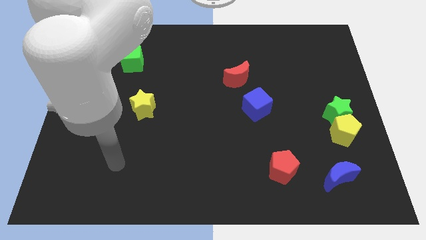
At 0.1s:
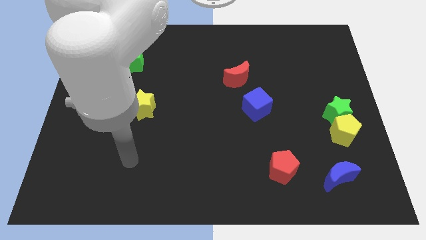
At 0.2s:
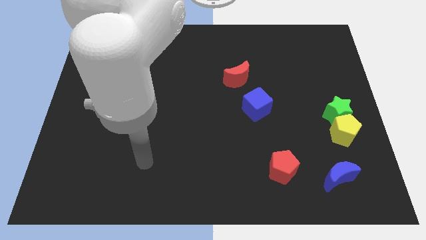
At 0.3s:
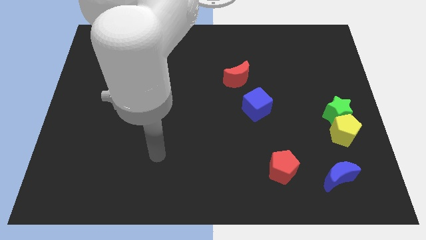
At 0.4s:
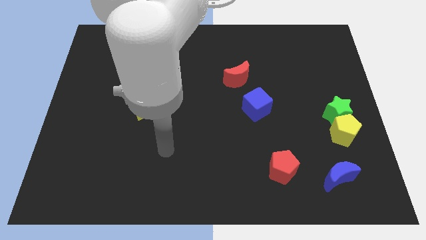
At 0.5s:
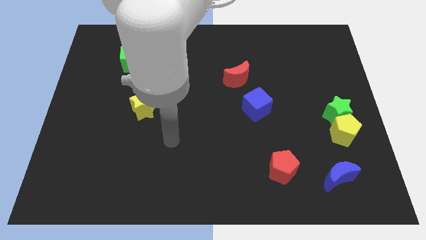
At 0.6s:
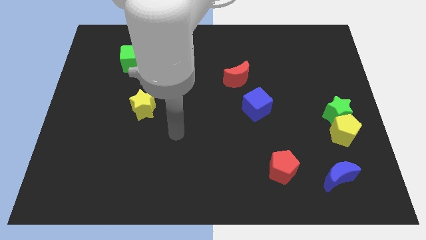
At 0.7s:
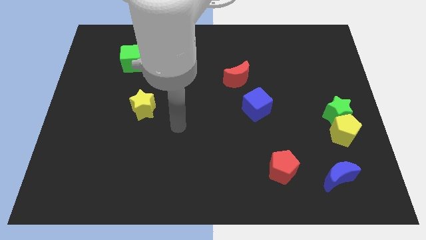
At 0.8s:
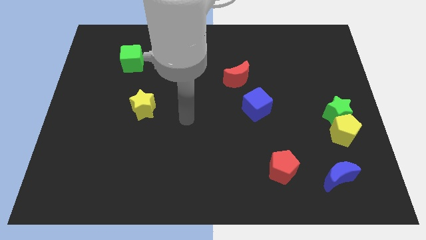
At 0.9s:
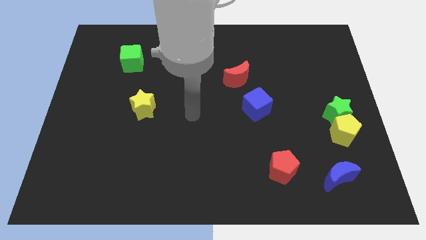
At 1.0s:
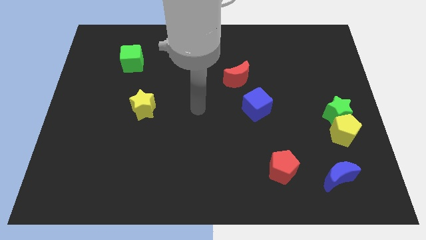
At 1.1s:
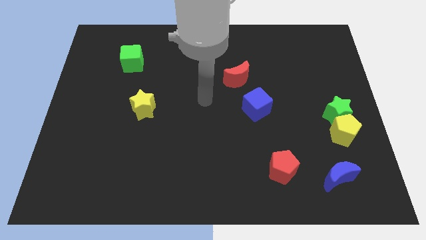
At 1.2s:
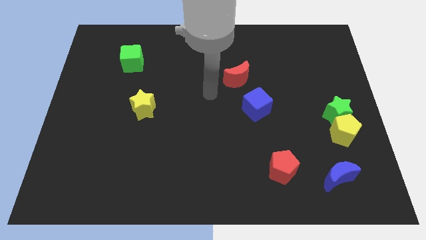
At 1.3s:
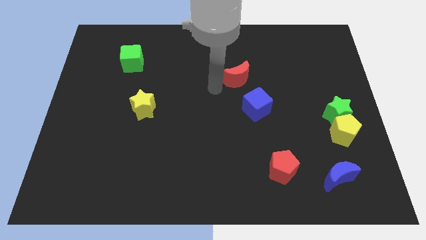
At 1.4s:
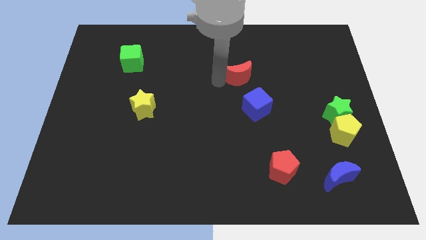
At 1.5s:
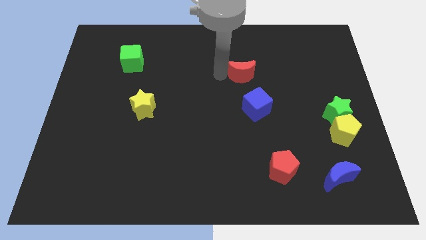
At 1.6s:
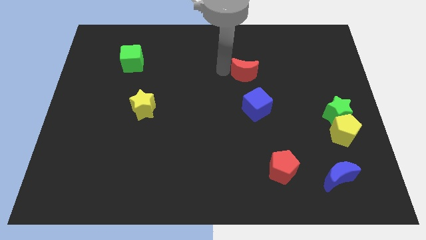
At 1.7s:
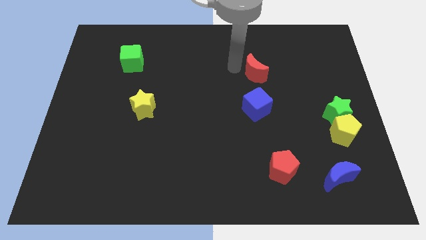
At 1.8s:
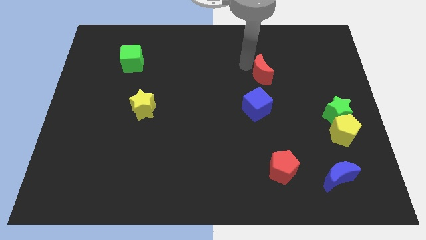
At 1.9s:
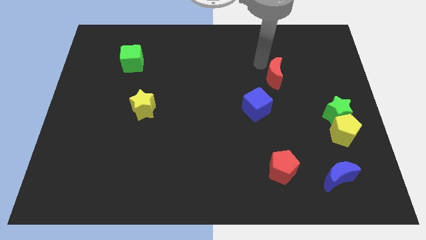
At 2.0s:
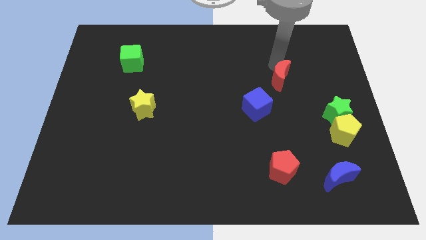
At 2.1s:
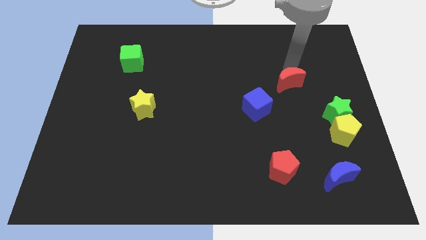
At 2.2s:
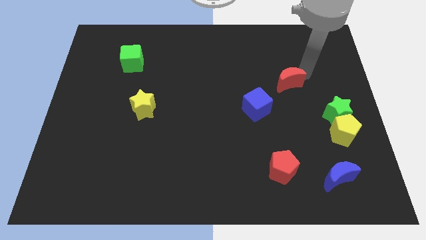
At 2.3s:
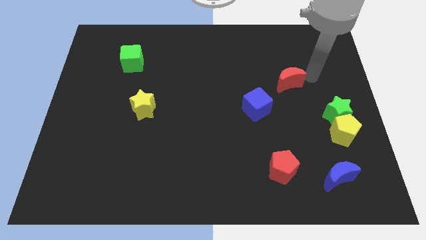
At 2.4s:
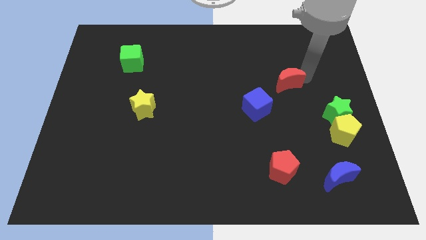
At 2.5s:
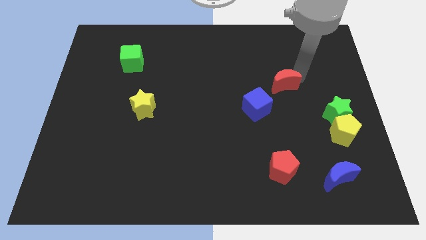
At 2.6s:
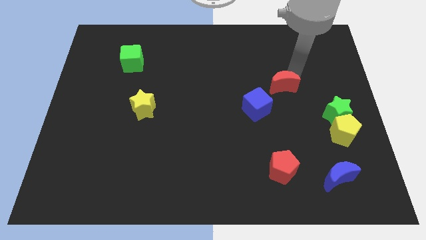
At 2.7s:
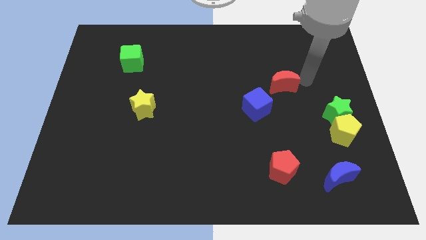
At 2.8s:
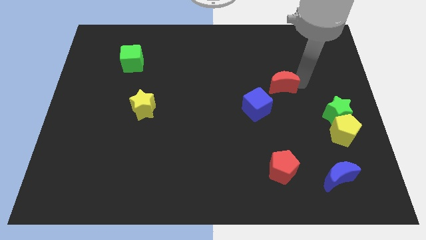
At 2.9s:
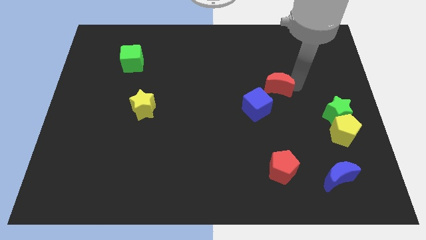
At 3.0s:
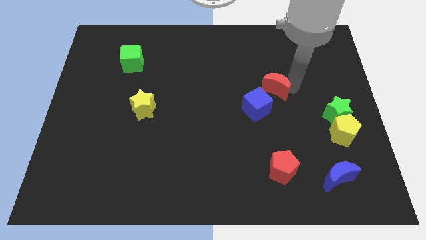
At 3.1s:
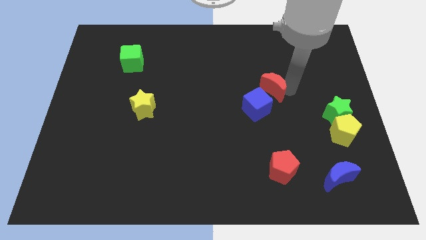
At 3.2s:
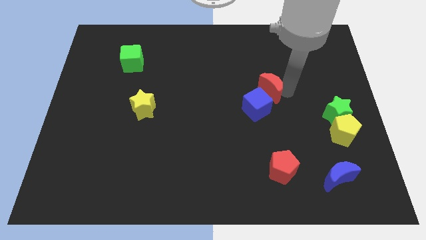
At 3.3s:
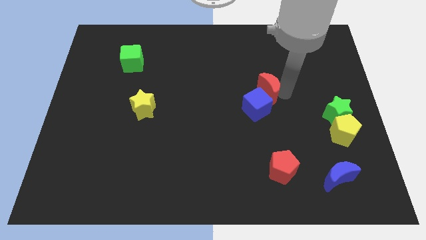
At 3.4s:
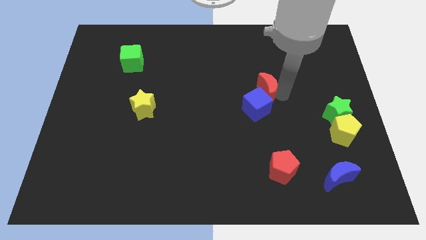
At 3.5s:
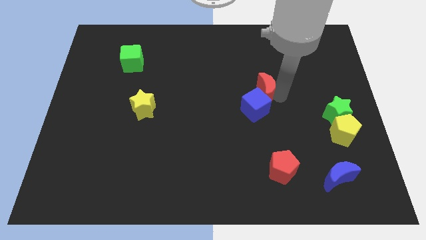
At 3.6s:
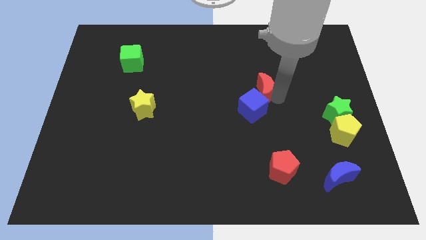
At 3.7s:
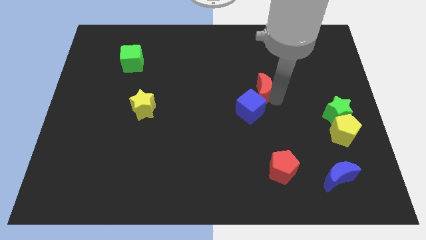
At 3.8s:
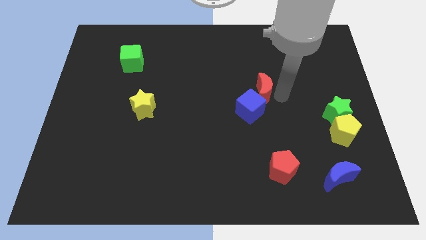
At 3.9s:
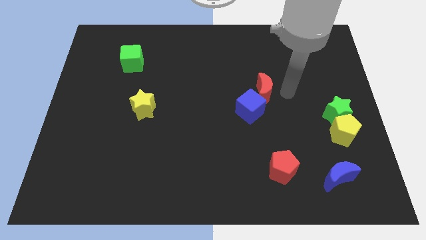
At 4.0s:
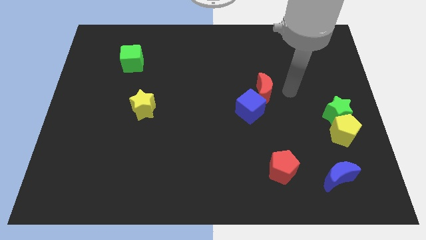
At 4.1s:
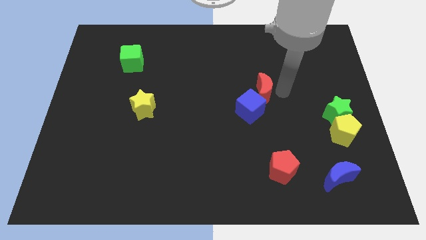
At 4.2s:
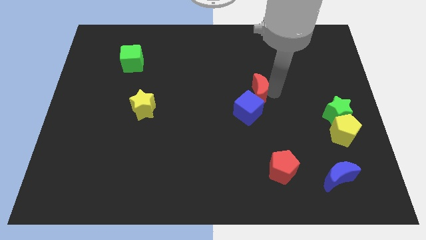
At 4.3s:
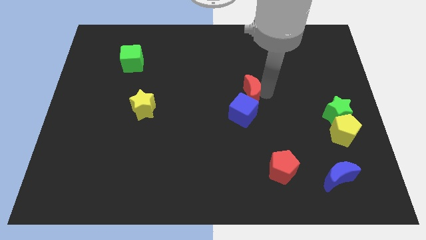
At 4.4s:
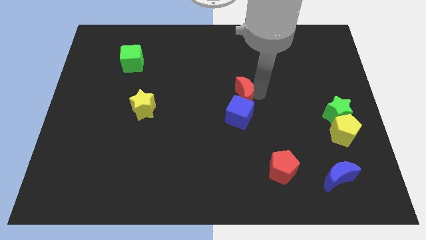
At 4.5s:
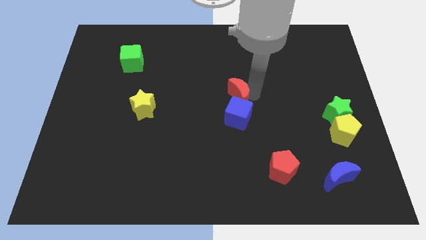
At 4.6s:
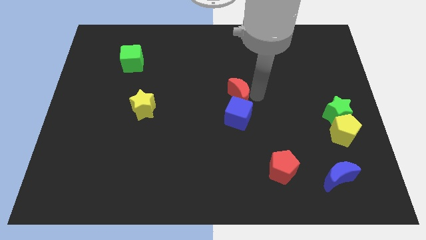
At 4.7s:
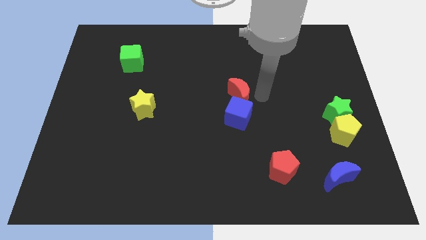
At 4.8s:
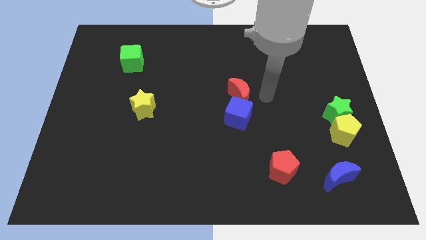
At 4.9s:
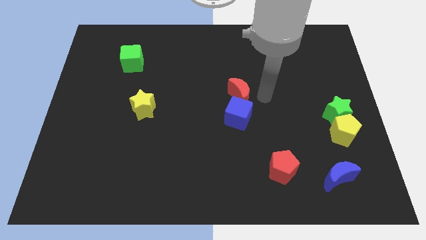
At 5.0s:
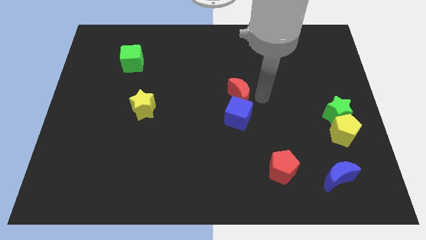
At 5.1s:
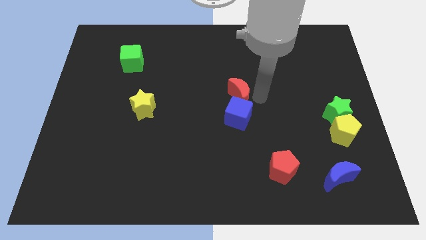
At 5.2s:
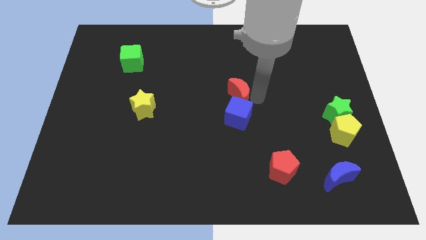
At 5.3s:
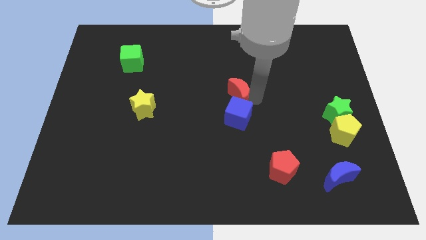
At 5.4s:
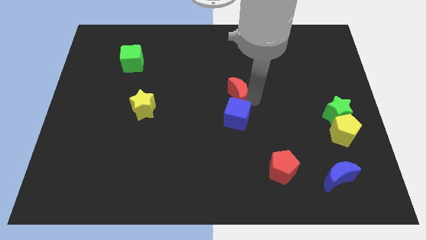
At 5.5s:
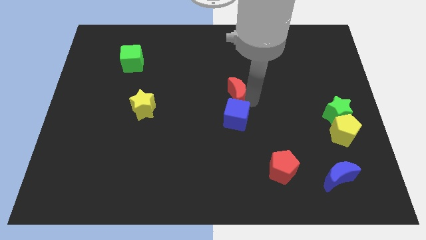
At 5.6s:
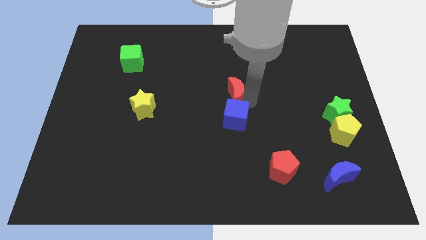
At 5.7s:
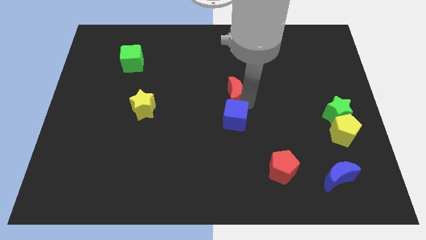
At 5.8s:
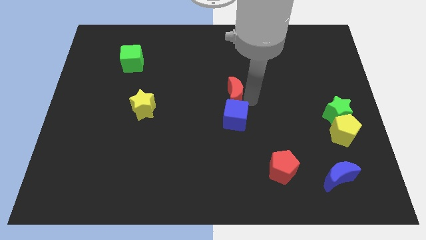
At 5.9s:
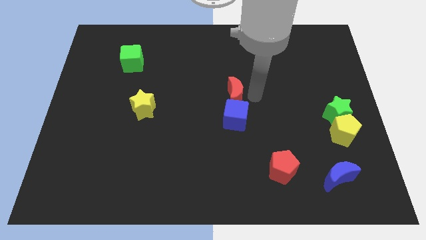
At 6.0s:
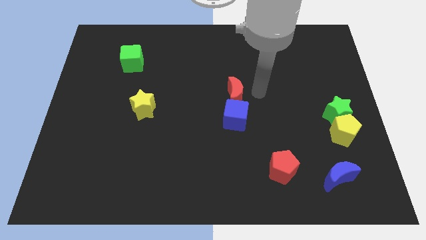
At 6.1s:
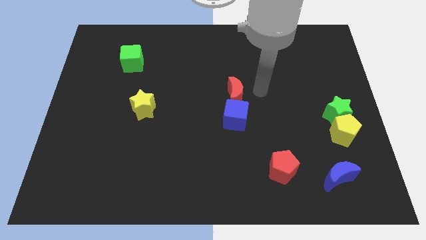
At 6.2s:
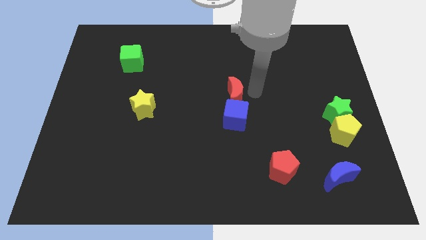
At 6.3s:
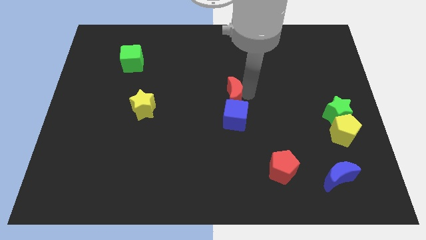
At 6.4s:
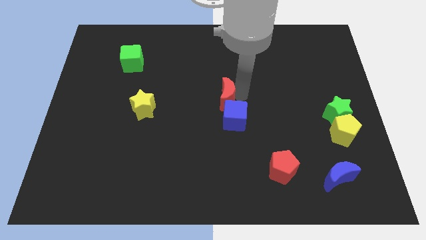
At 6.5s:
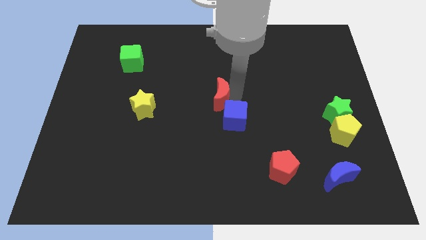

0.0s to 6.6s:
slightly move the red moon diagonally downwards and to the left

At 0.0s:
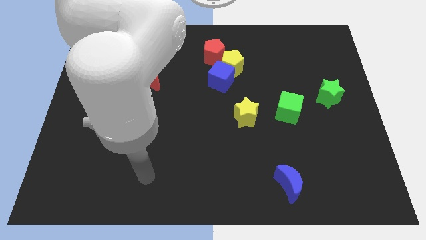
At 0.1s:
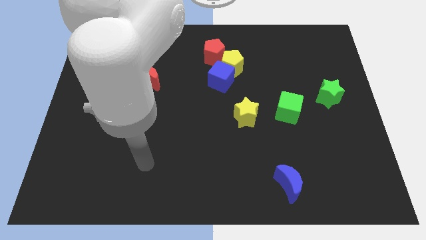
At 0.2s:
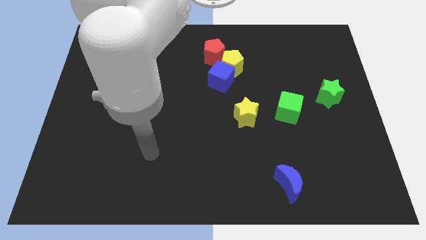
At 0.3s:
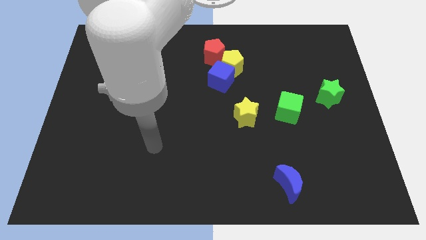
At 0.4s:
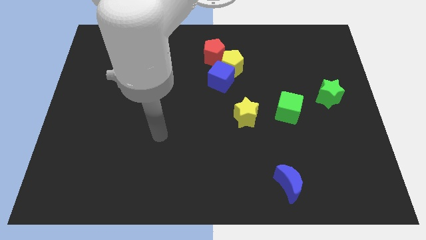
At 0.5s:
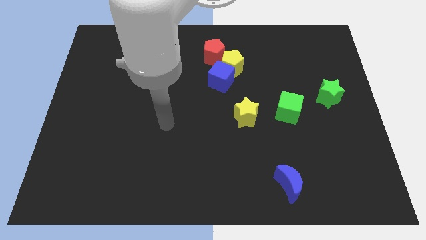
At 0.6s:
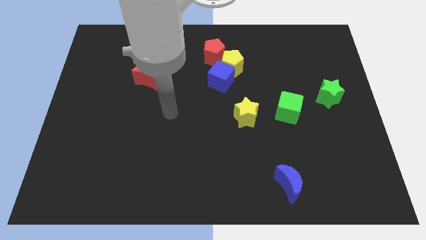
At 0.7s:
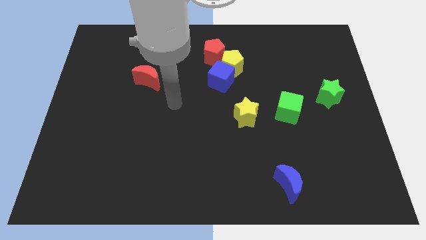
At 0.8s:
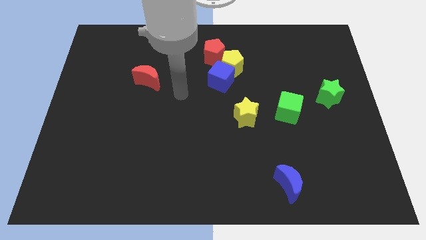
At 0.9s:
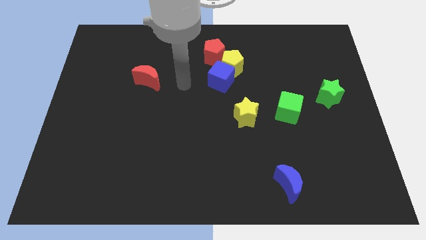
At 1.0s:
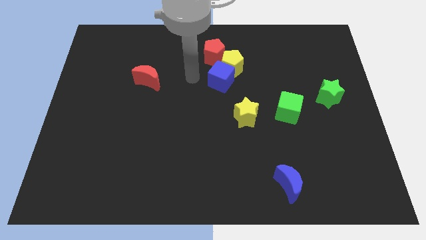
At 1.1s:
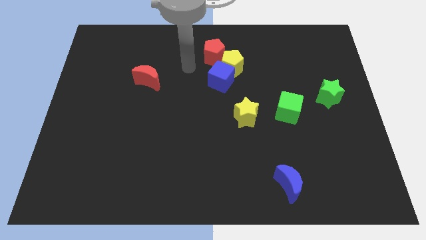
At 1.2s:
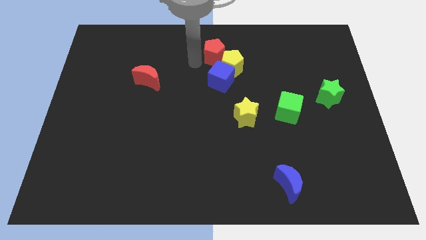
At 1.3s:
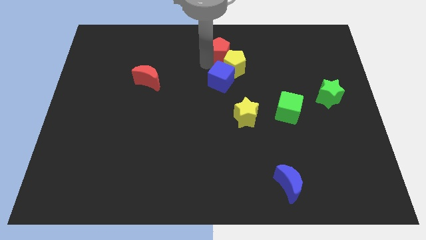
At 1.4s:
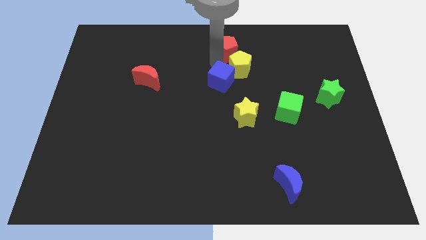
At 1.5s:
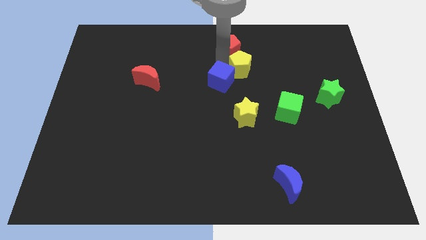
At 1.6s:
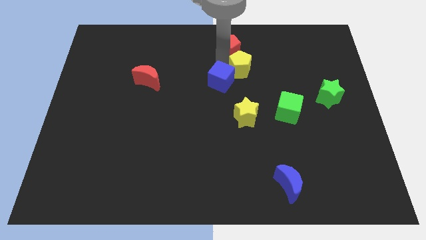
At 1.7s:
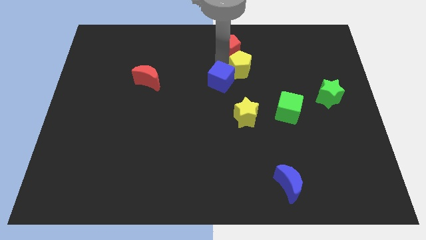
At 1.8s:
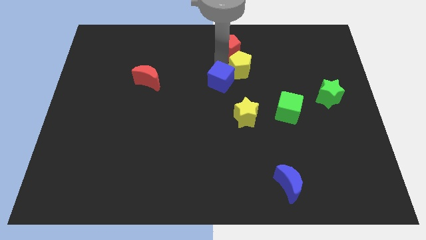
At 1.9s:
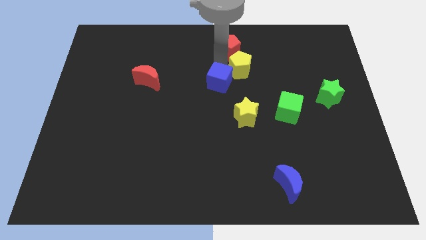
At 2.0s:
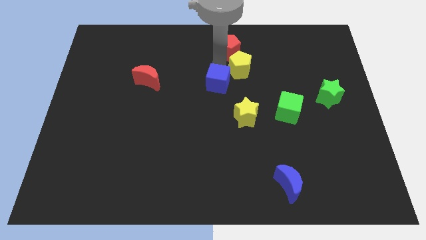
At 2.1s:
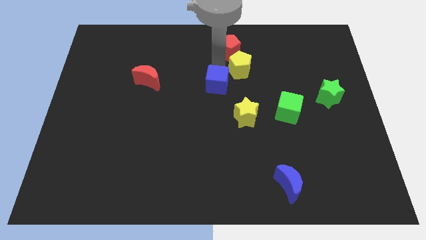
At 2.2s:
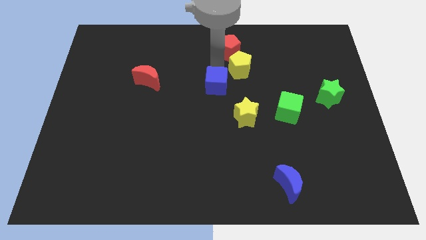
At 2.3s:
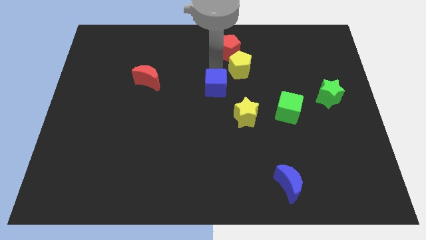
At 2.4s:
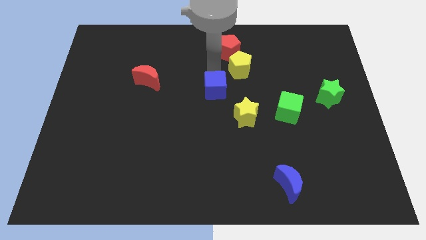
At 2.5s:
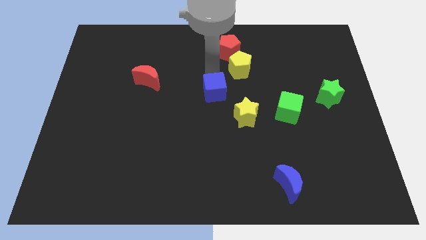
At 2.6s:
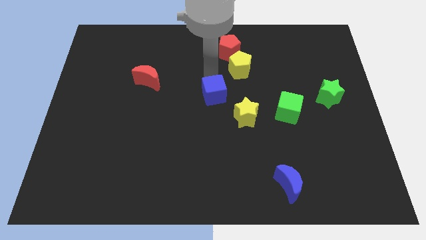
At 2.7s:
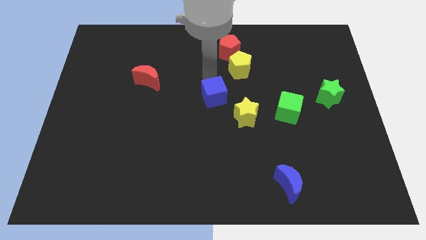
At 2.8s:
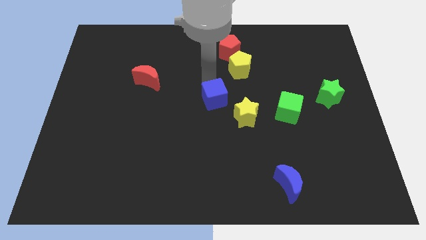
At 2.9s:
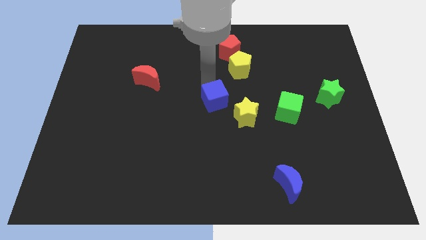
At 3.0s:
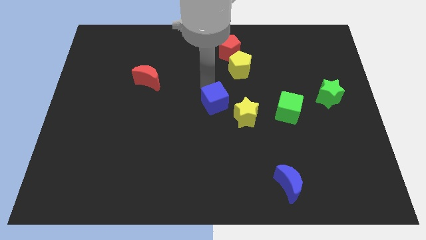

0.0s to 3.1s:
push the blue cube down slightly
